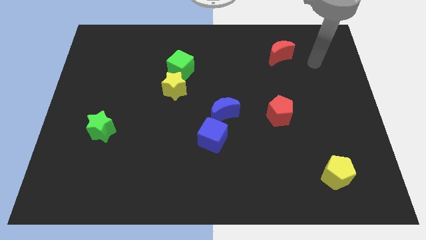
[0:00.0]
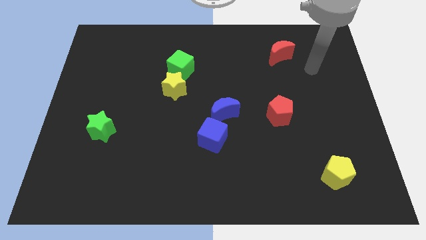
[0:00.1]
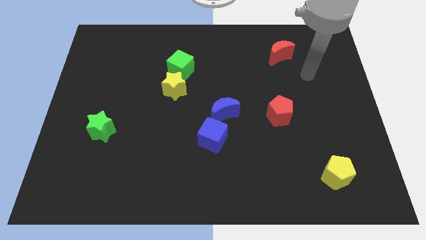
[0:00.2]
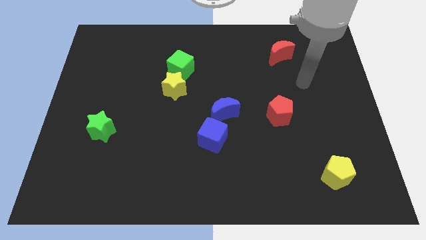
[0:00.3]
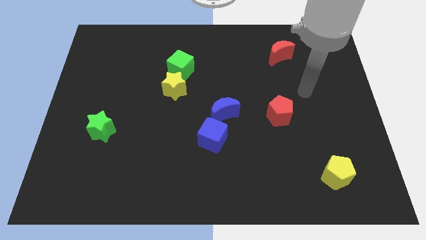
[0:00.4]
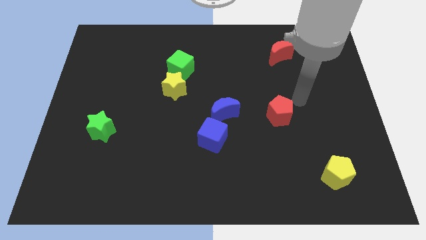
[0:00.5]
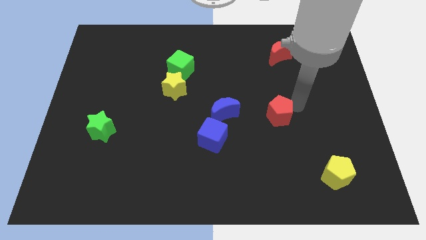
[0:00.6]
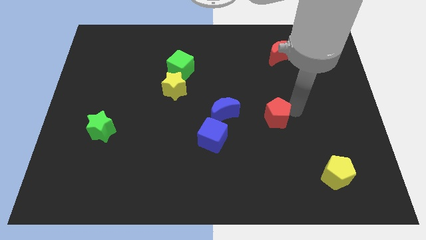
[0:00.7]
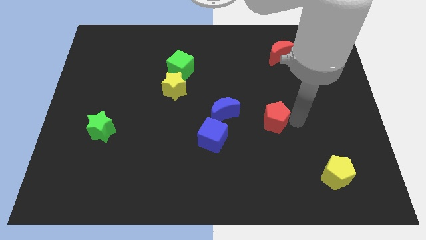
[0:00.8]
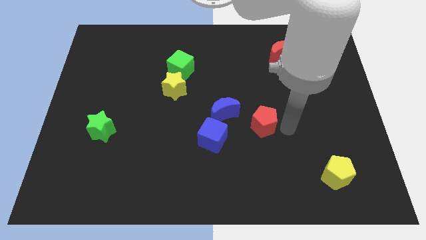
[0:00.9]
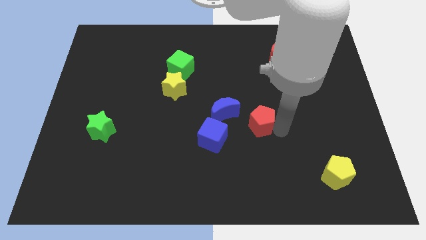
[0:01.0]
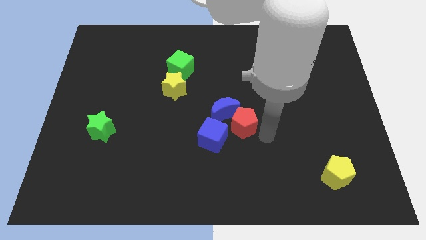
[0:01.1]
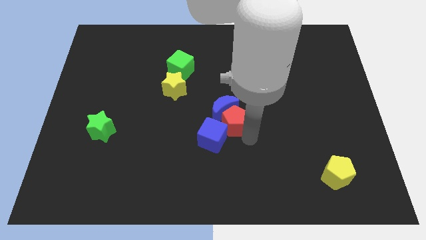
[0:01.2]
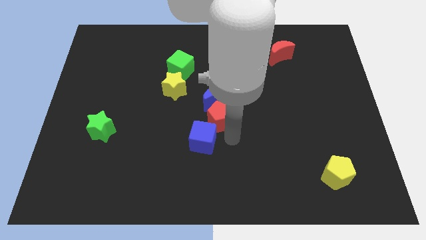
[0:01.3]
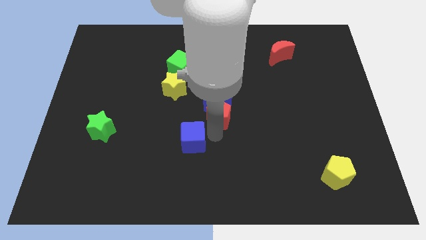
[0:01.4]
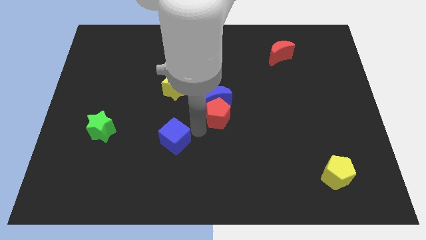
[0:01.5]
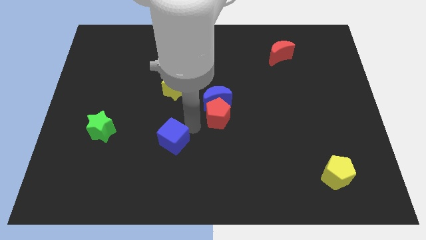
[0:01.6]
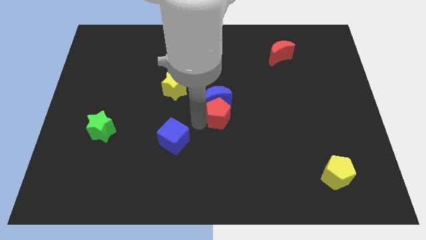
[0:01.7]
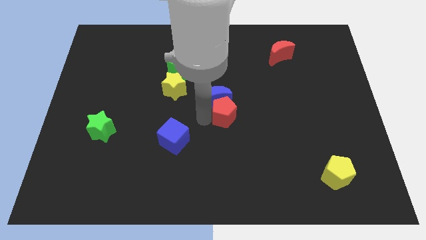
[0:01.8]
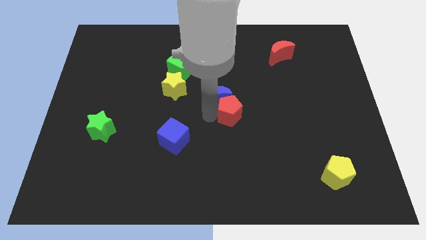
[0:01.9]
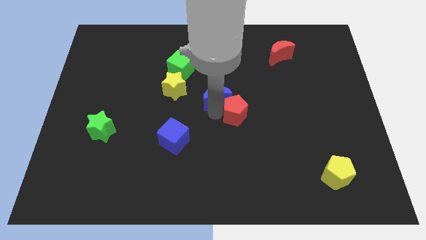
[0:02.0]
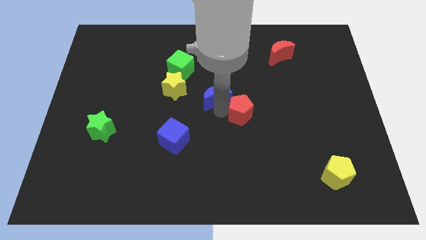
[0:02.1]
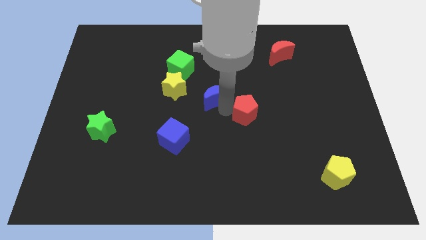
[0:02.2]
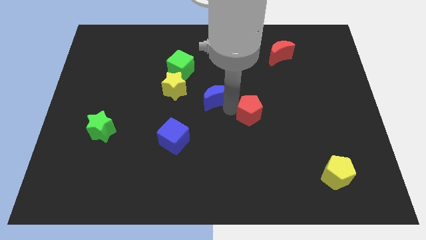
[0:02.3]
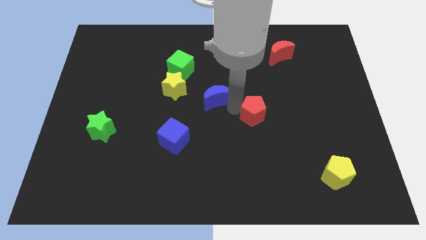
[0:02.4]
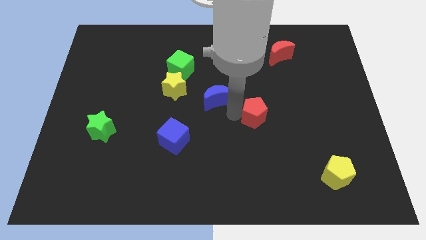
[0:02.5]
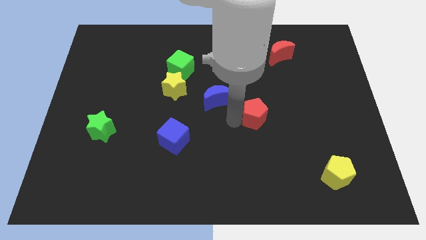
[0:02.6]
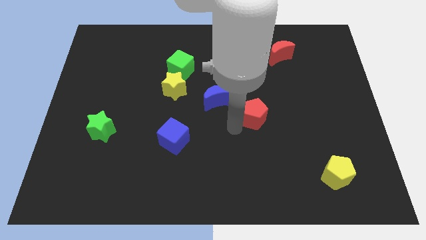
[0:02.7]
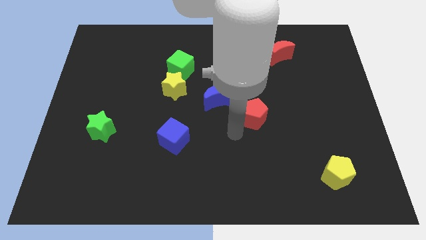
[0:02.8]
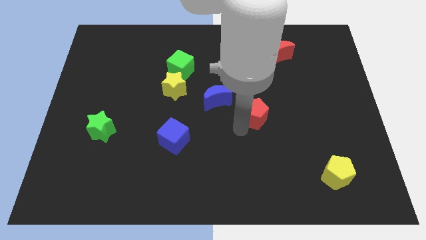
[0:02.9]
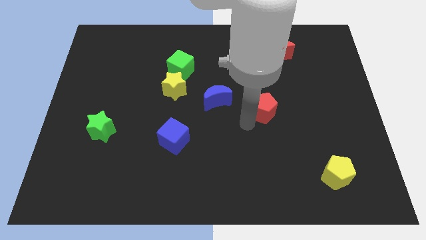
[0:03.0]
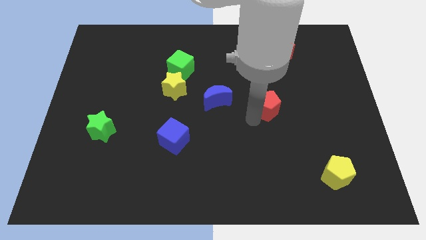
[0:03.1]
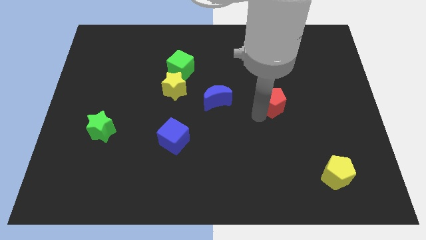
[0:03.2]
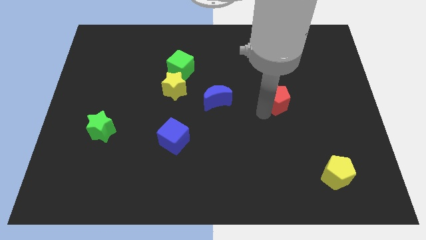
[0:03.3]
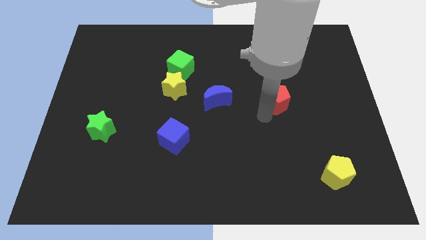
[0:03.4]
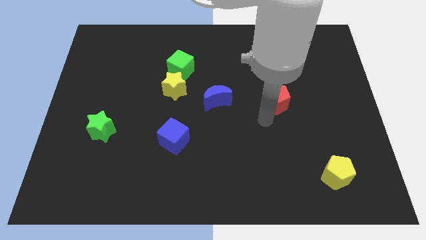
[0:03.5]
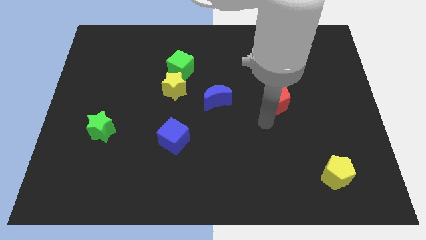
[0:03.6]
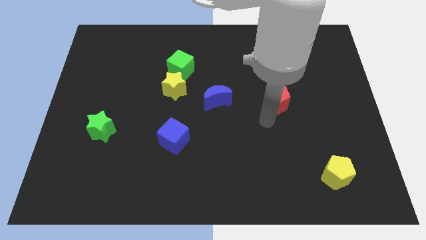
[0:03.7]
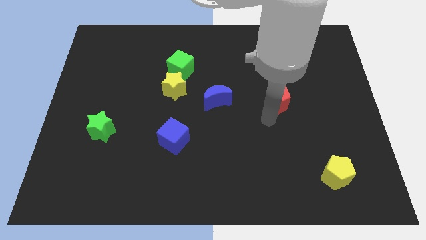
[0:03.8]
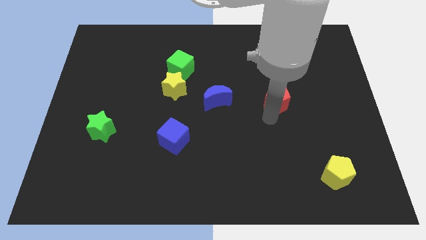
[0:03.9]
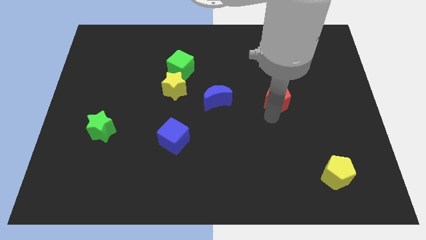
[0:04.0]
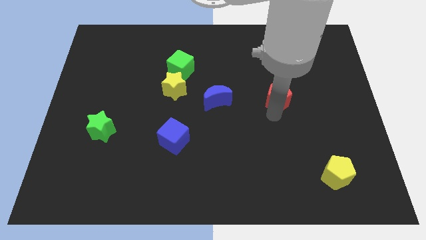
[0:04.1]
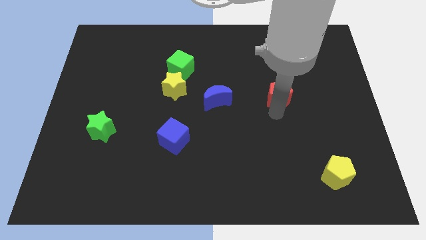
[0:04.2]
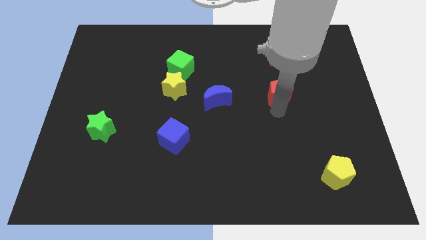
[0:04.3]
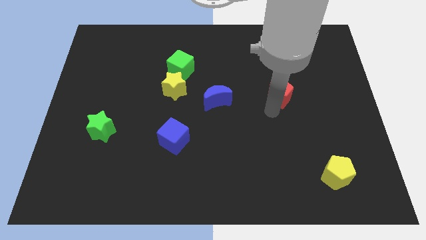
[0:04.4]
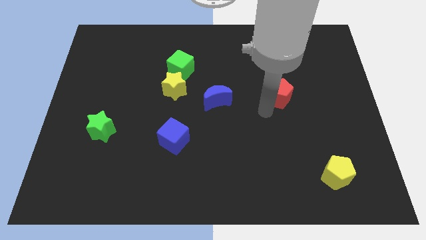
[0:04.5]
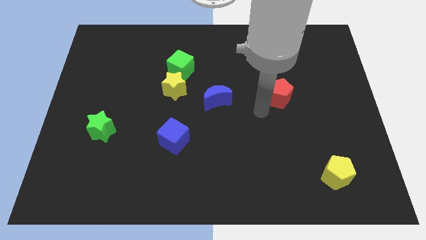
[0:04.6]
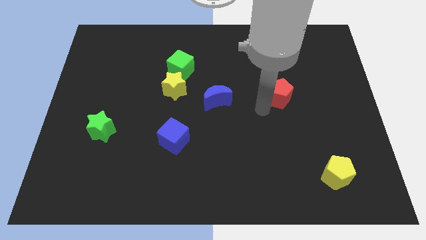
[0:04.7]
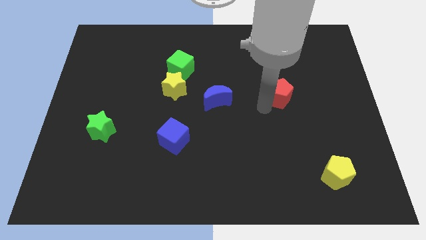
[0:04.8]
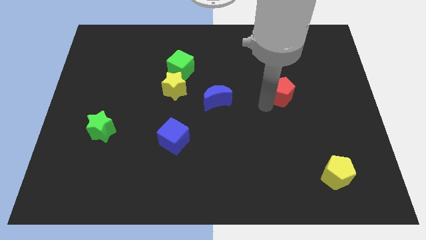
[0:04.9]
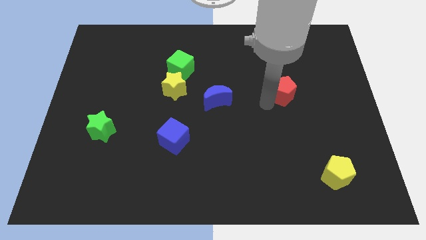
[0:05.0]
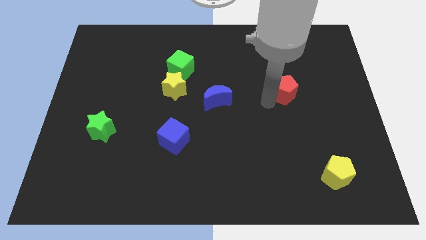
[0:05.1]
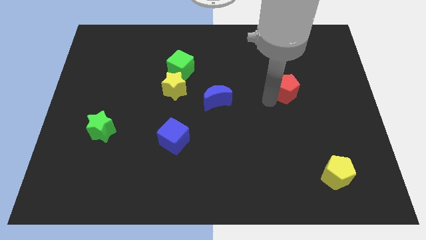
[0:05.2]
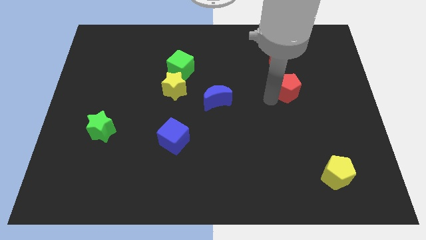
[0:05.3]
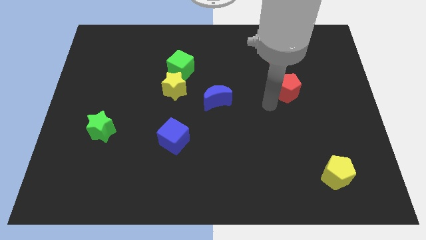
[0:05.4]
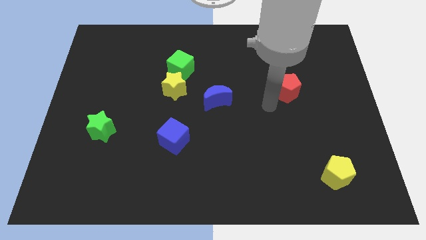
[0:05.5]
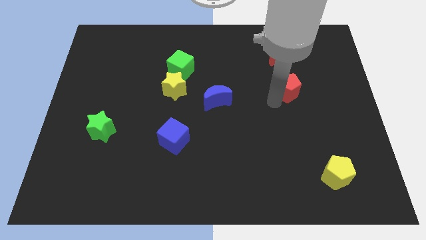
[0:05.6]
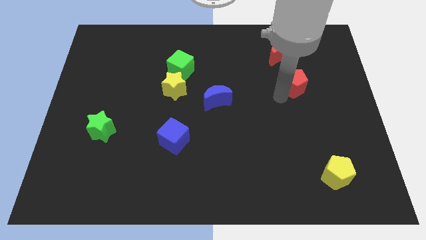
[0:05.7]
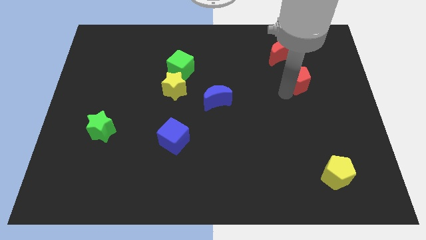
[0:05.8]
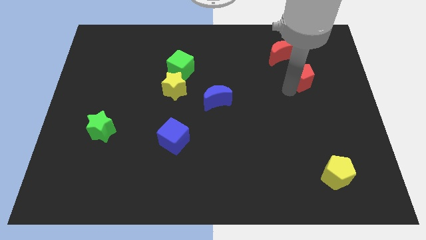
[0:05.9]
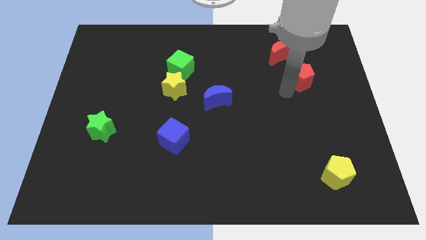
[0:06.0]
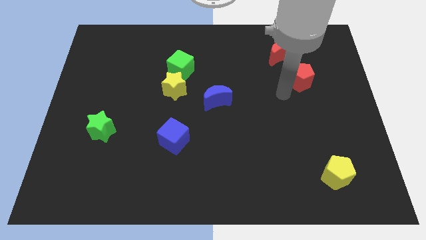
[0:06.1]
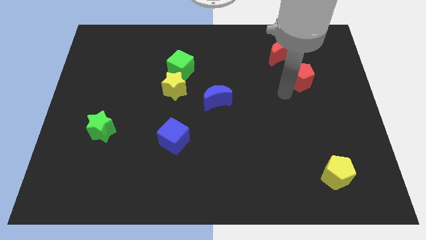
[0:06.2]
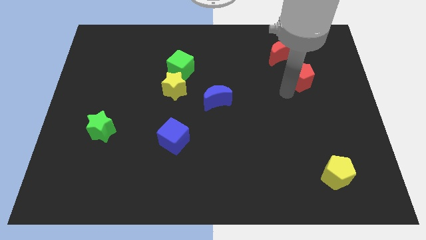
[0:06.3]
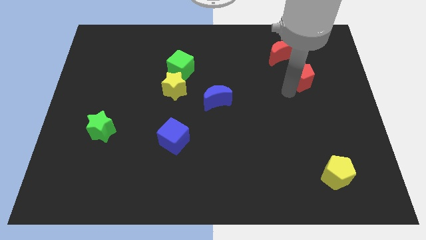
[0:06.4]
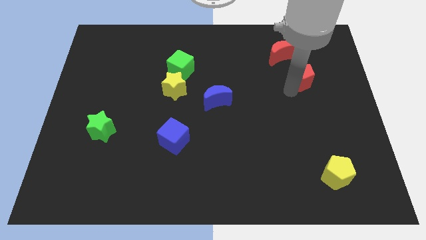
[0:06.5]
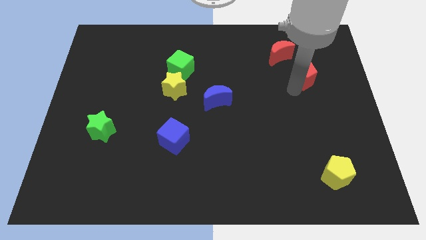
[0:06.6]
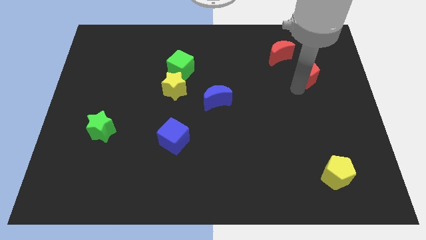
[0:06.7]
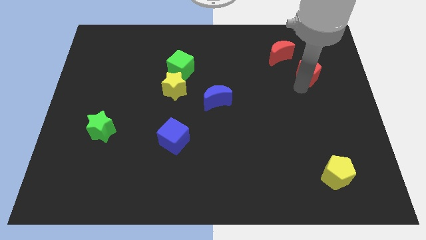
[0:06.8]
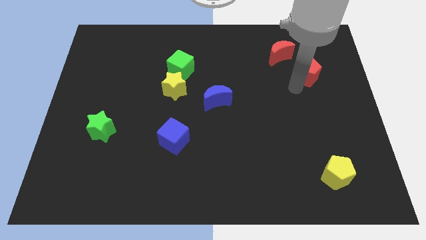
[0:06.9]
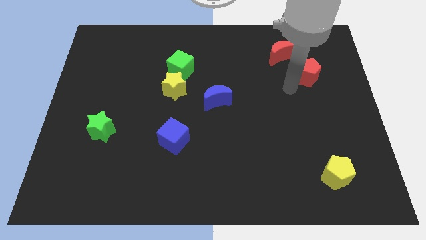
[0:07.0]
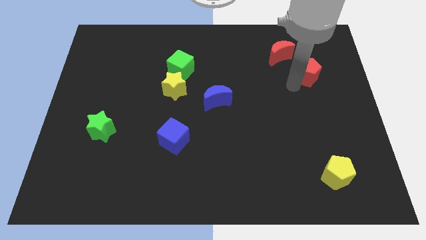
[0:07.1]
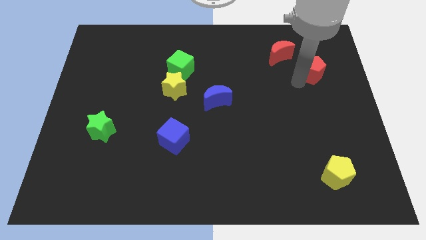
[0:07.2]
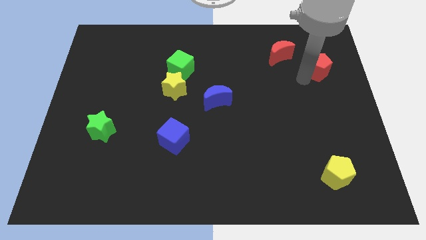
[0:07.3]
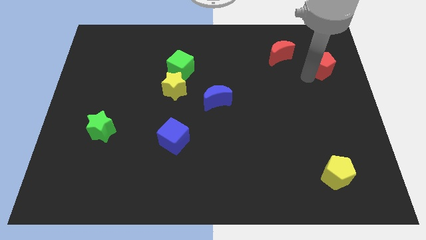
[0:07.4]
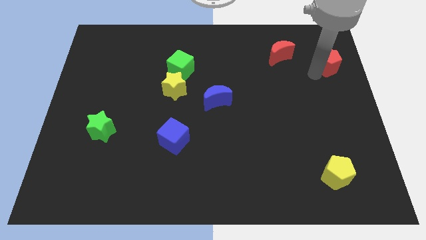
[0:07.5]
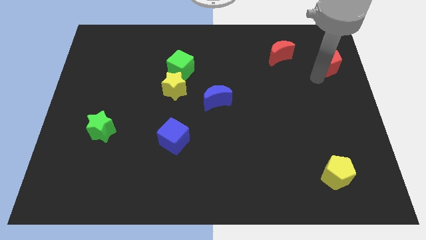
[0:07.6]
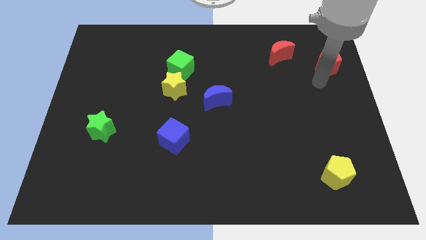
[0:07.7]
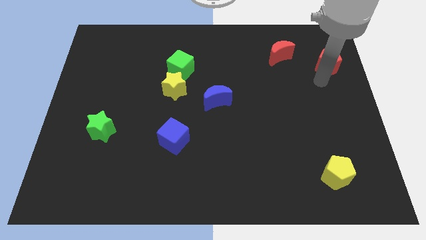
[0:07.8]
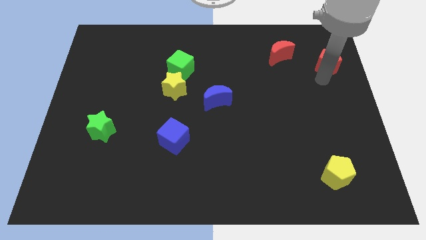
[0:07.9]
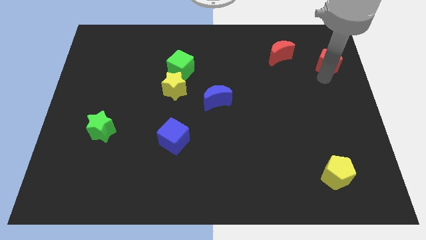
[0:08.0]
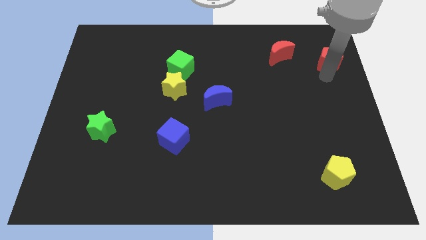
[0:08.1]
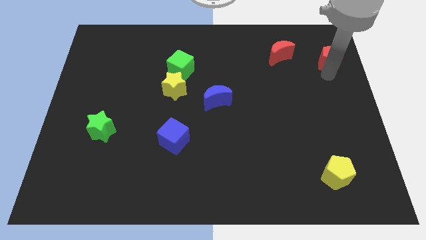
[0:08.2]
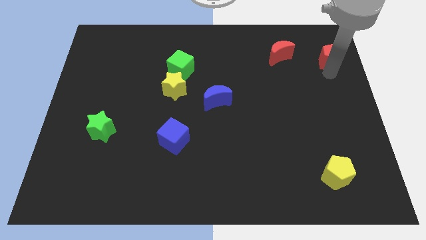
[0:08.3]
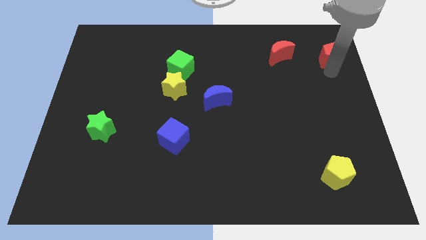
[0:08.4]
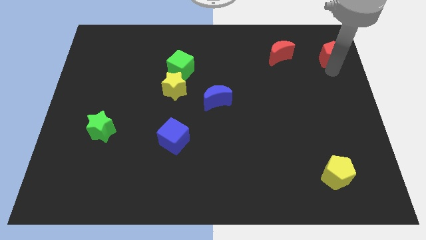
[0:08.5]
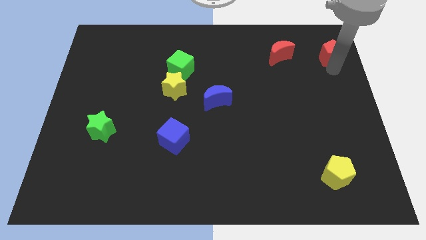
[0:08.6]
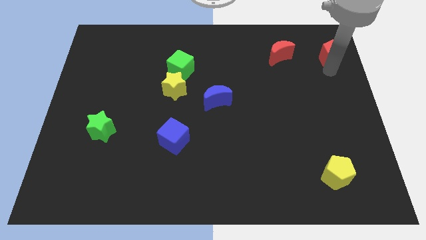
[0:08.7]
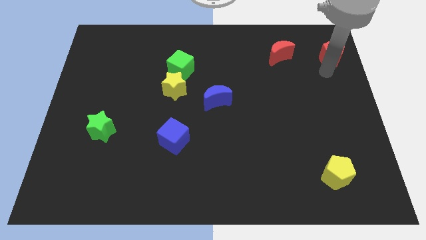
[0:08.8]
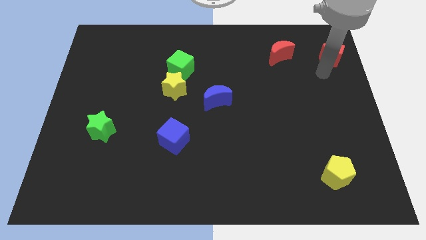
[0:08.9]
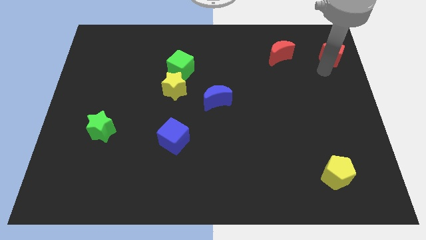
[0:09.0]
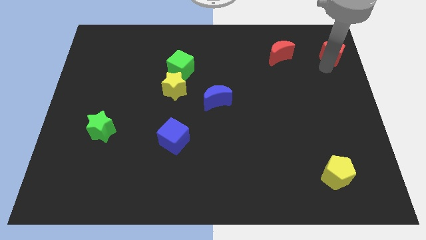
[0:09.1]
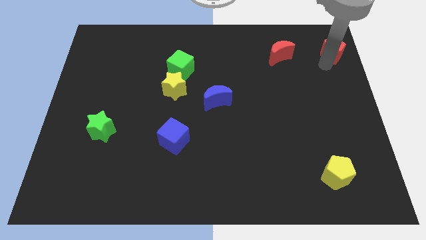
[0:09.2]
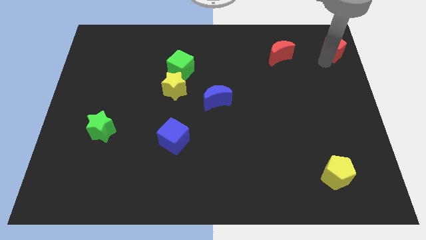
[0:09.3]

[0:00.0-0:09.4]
move the red pentagon to the top right
